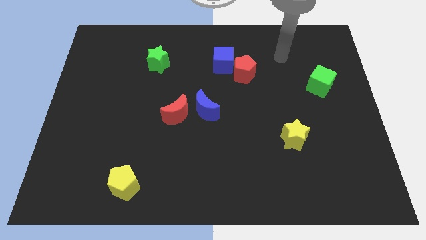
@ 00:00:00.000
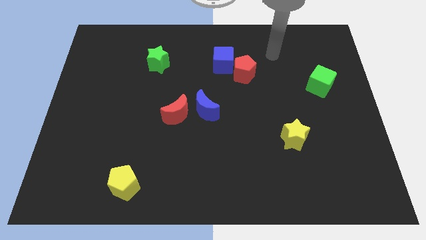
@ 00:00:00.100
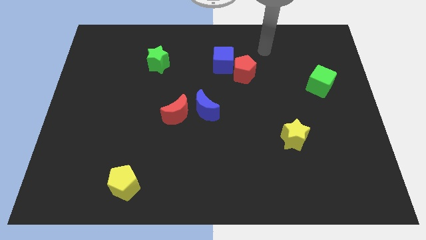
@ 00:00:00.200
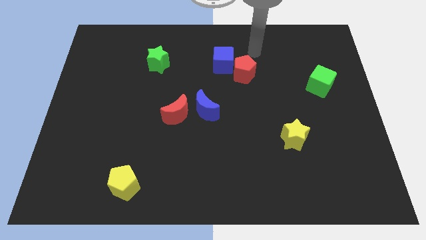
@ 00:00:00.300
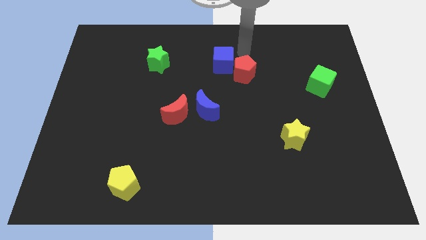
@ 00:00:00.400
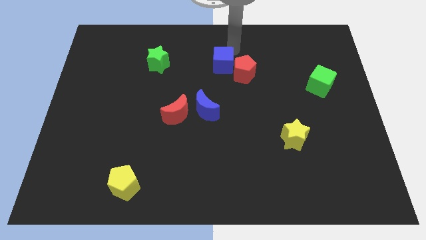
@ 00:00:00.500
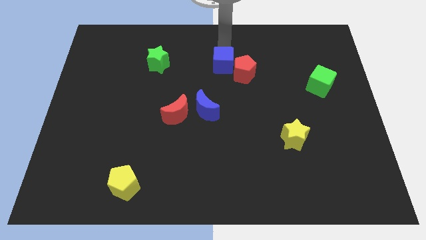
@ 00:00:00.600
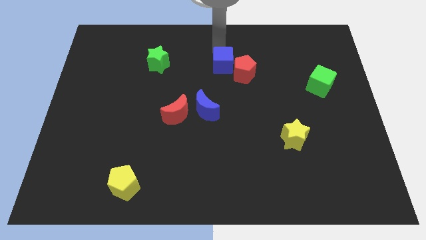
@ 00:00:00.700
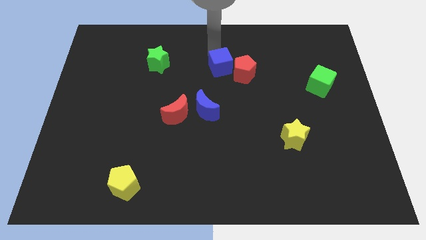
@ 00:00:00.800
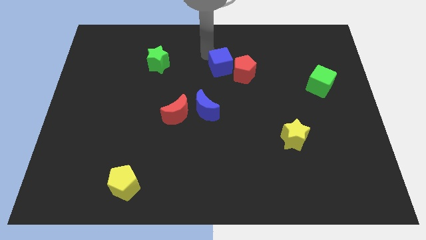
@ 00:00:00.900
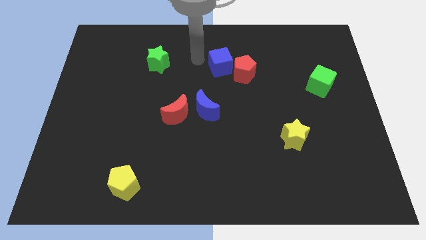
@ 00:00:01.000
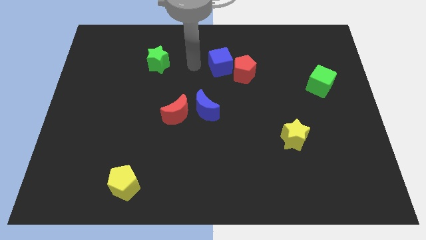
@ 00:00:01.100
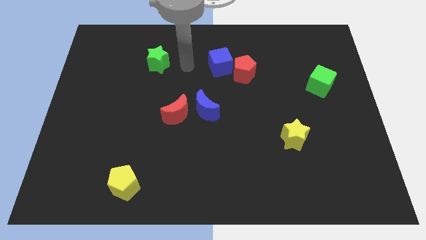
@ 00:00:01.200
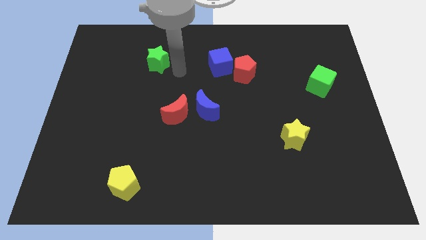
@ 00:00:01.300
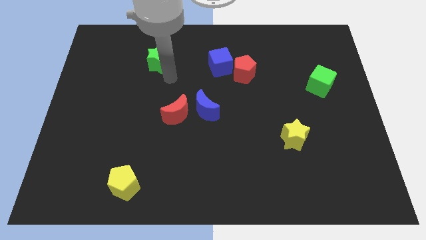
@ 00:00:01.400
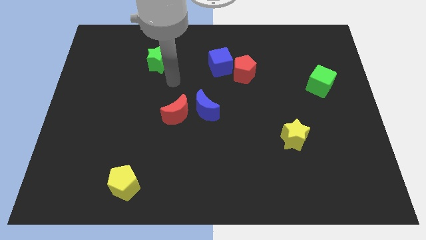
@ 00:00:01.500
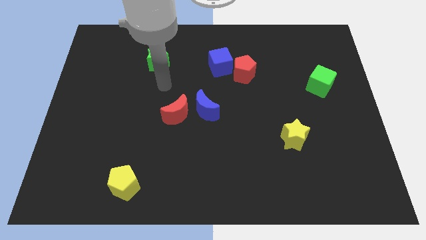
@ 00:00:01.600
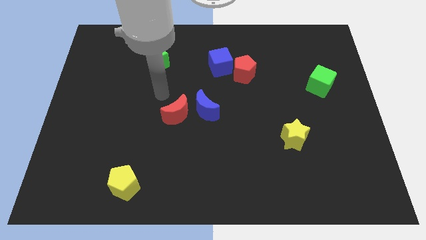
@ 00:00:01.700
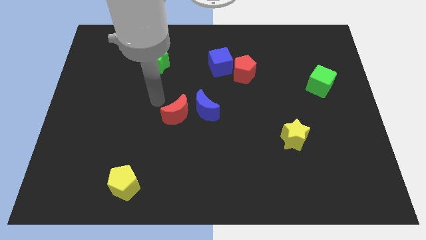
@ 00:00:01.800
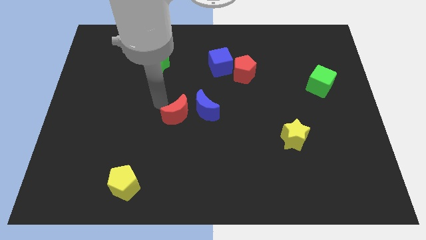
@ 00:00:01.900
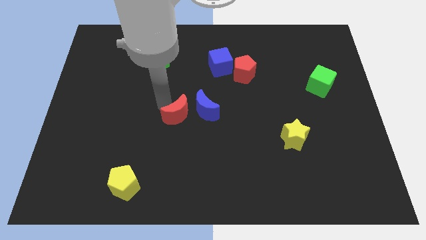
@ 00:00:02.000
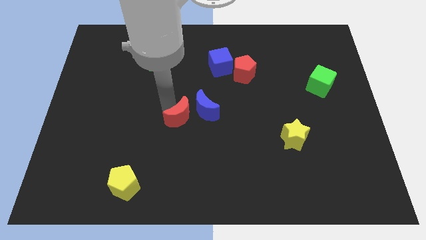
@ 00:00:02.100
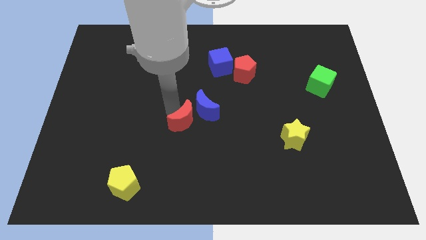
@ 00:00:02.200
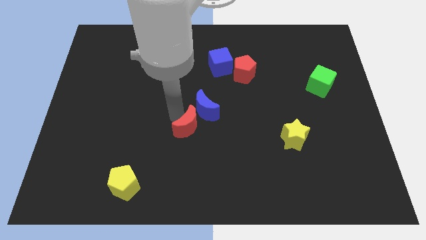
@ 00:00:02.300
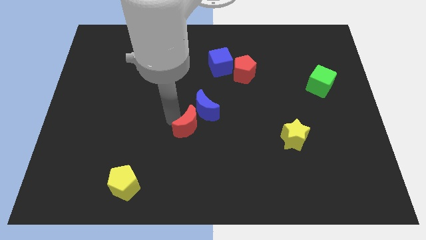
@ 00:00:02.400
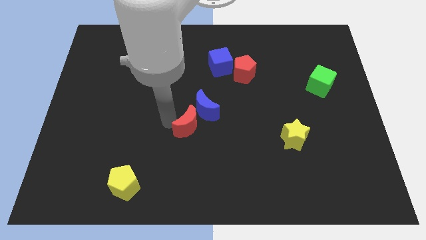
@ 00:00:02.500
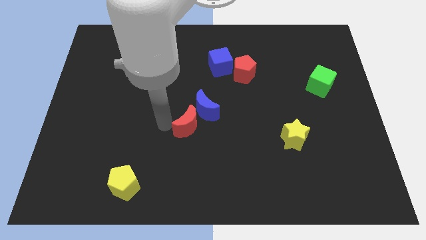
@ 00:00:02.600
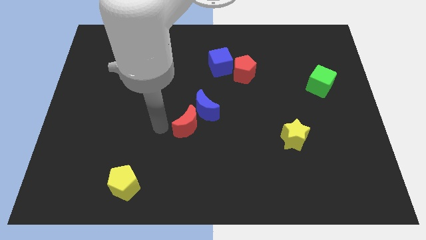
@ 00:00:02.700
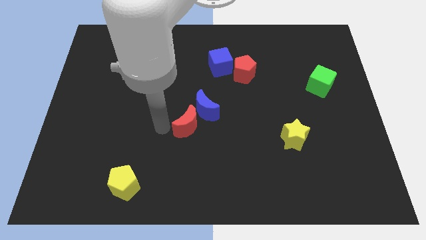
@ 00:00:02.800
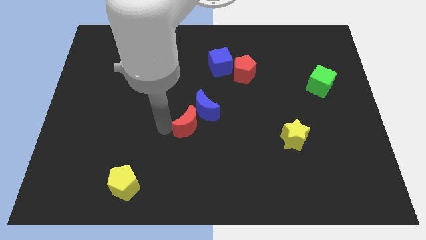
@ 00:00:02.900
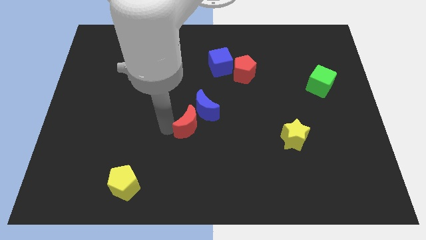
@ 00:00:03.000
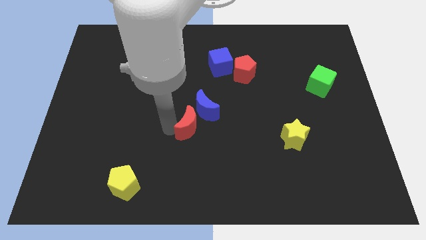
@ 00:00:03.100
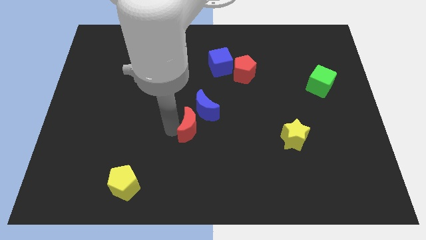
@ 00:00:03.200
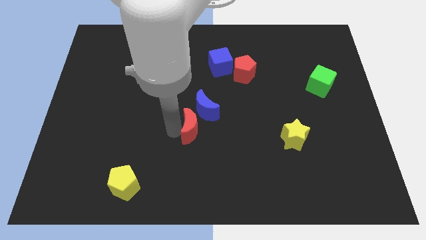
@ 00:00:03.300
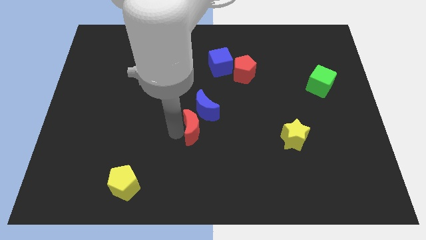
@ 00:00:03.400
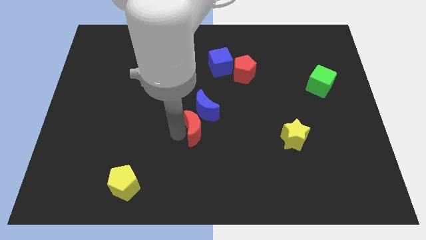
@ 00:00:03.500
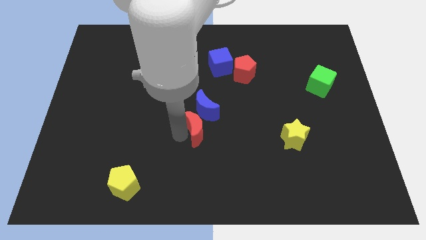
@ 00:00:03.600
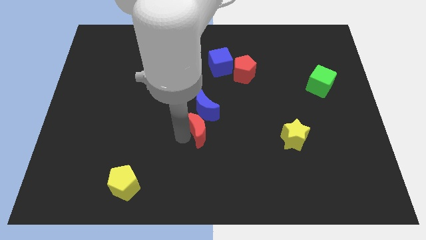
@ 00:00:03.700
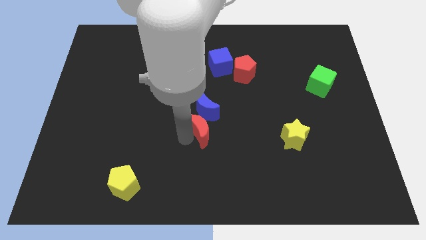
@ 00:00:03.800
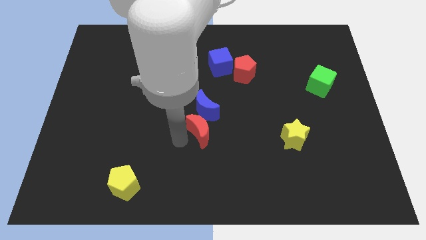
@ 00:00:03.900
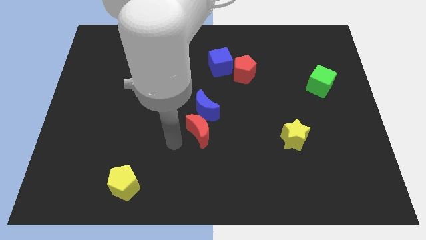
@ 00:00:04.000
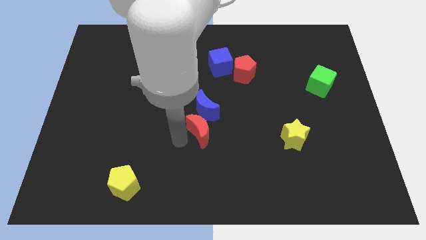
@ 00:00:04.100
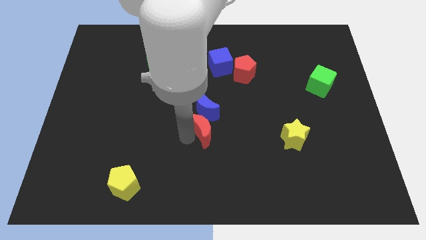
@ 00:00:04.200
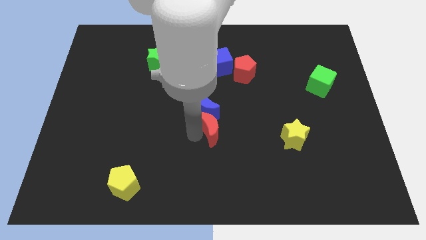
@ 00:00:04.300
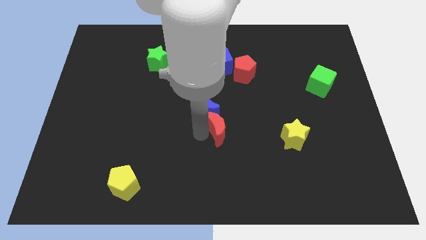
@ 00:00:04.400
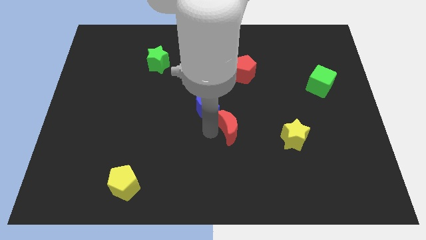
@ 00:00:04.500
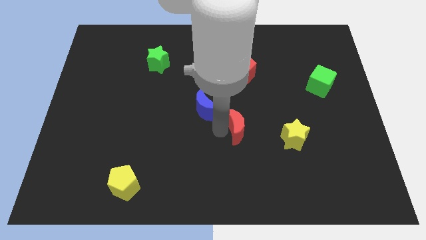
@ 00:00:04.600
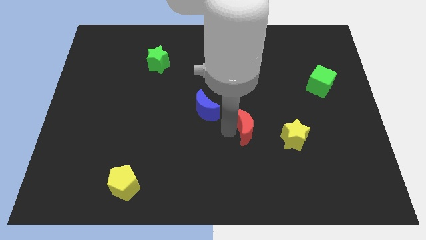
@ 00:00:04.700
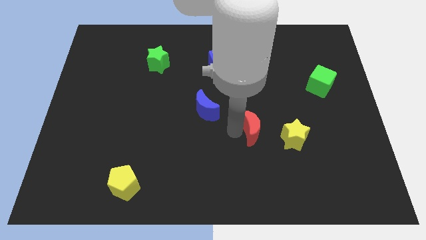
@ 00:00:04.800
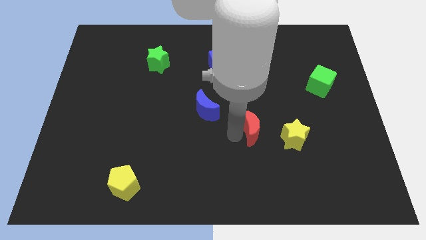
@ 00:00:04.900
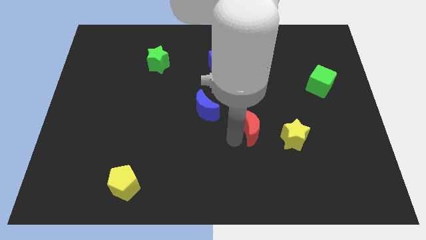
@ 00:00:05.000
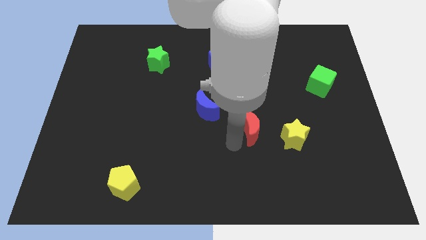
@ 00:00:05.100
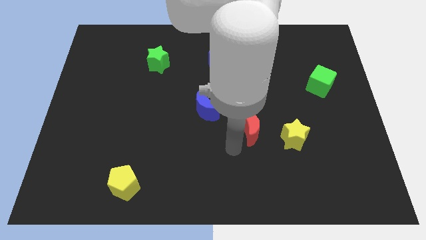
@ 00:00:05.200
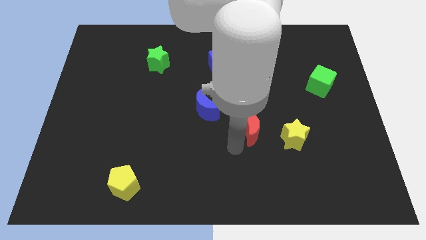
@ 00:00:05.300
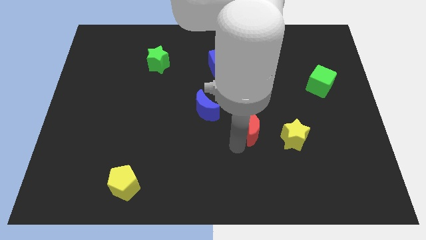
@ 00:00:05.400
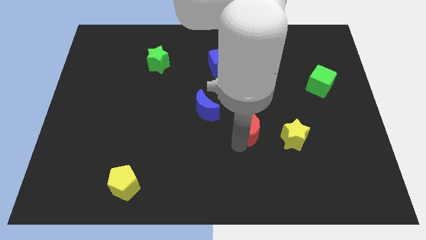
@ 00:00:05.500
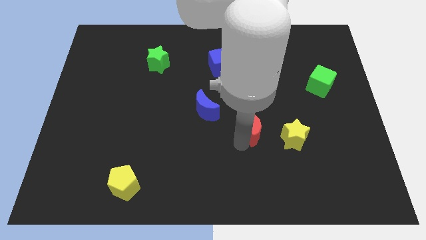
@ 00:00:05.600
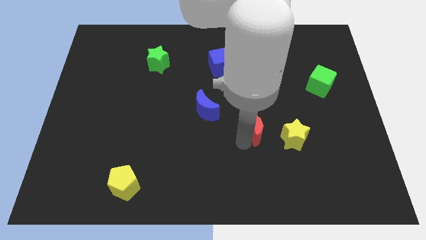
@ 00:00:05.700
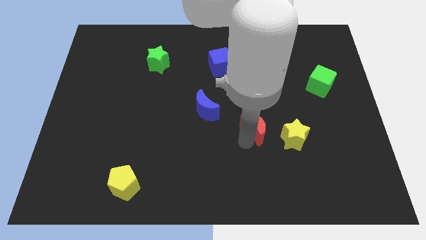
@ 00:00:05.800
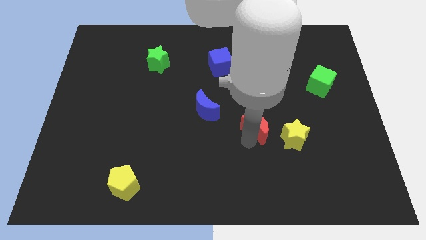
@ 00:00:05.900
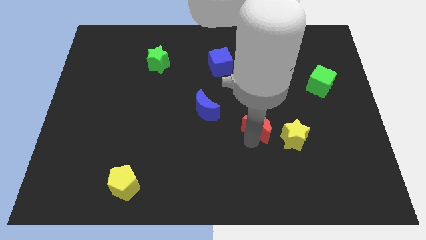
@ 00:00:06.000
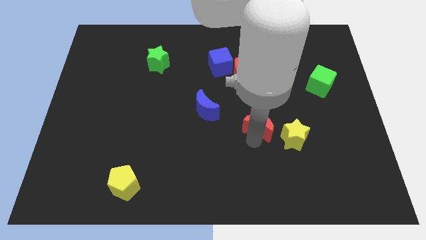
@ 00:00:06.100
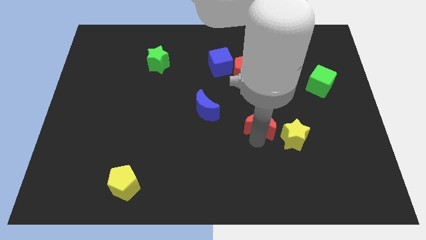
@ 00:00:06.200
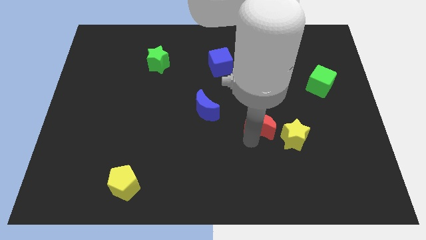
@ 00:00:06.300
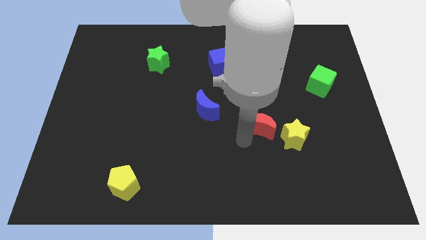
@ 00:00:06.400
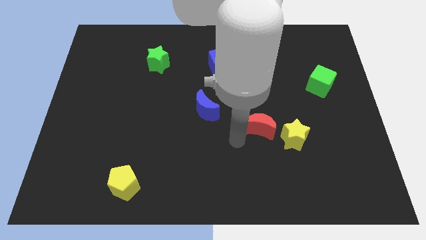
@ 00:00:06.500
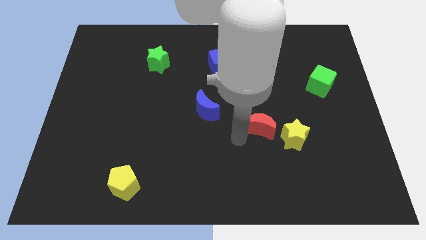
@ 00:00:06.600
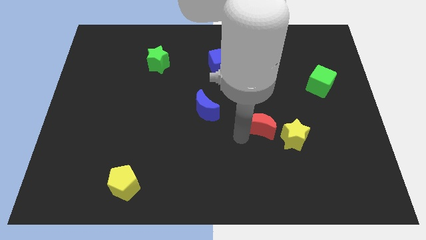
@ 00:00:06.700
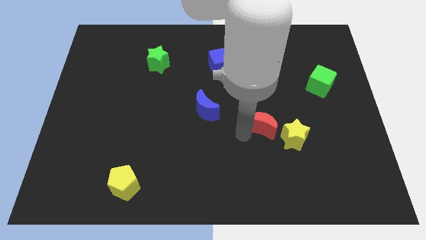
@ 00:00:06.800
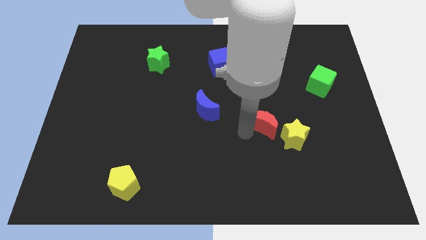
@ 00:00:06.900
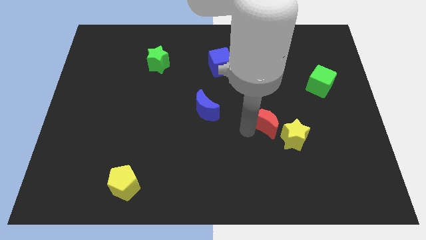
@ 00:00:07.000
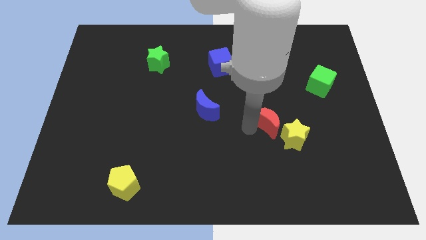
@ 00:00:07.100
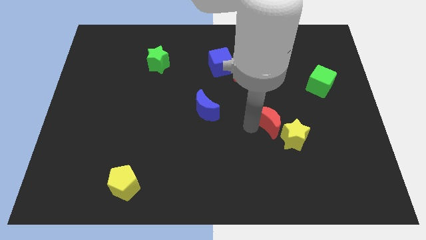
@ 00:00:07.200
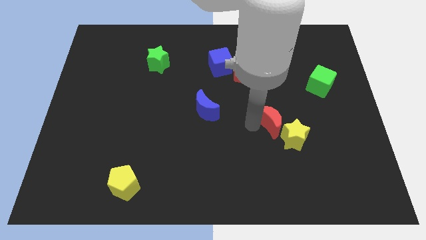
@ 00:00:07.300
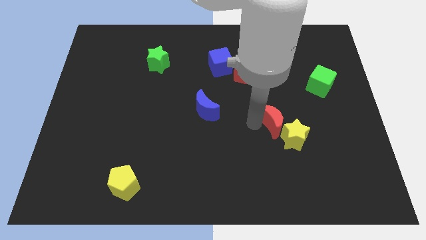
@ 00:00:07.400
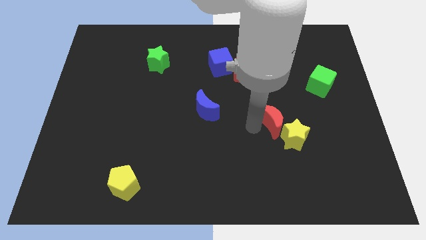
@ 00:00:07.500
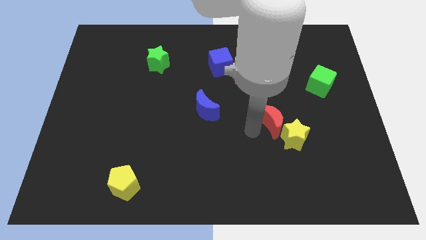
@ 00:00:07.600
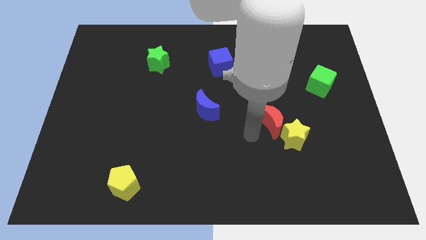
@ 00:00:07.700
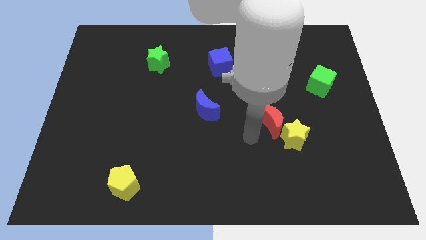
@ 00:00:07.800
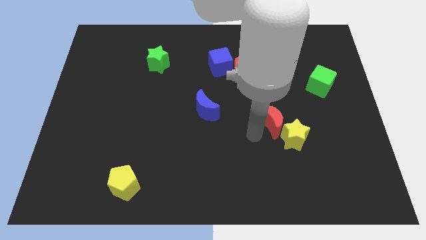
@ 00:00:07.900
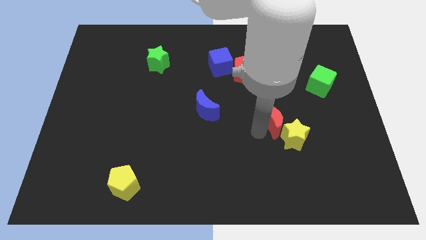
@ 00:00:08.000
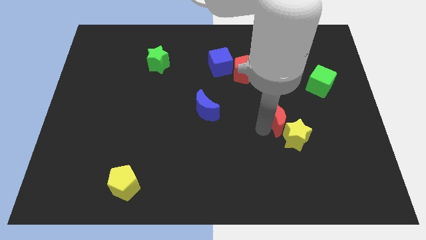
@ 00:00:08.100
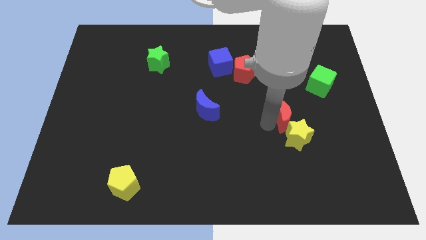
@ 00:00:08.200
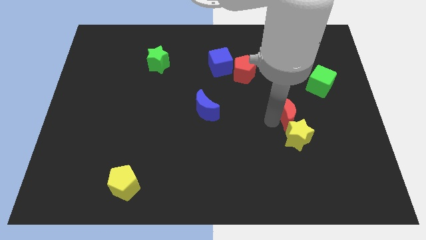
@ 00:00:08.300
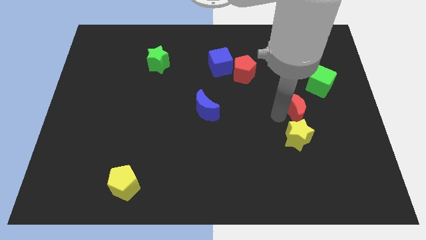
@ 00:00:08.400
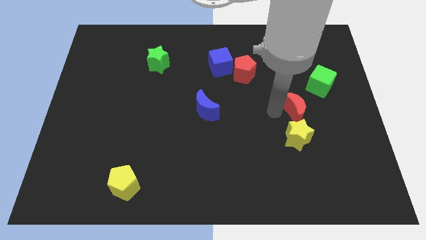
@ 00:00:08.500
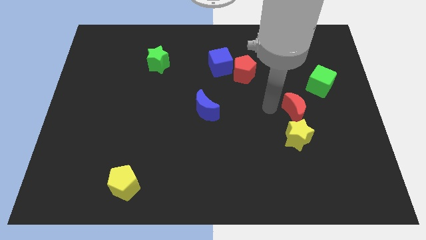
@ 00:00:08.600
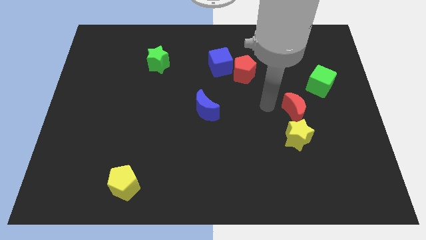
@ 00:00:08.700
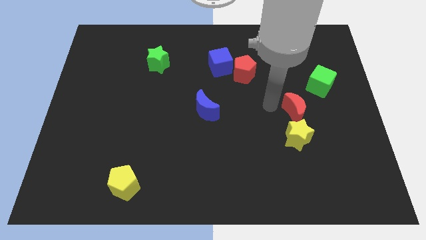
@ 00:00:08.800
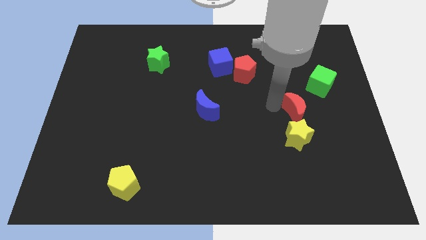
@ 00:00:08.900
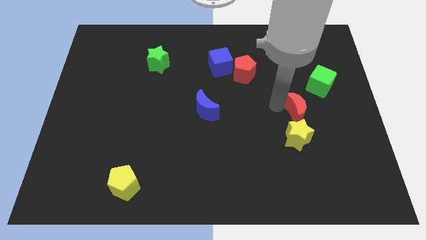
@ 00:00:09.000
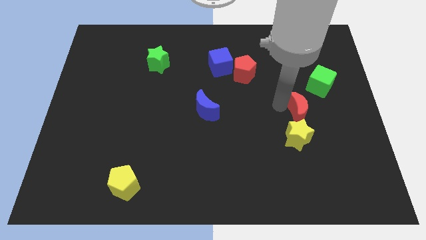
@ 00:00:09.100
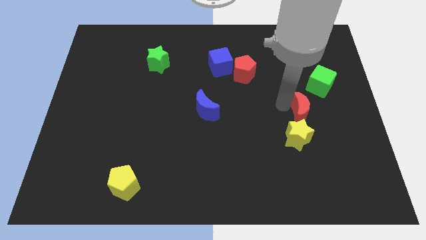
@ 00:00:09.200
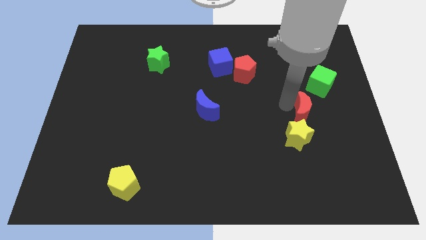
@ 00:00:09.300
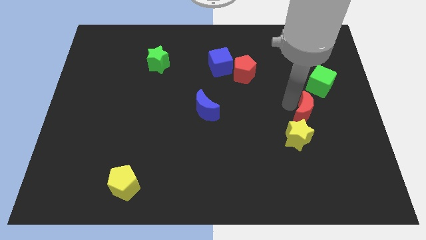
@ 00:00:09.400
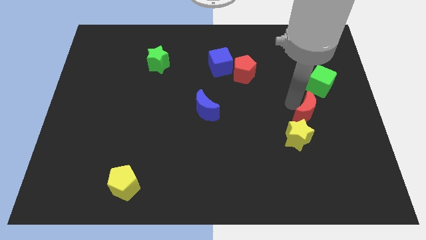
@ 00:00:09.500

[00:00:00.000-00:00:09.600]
push the red moon to the bottom side of the green cube
